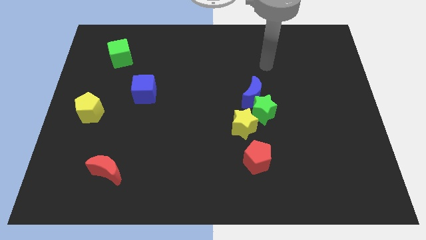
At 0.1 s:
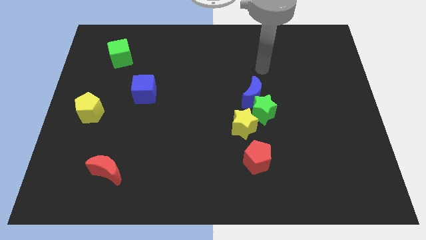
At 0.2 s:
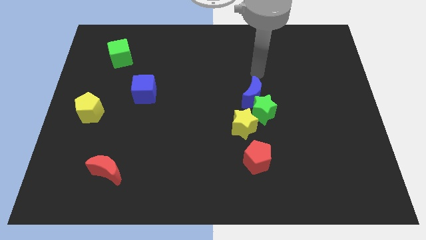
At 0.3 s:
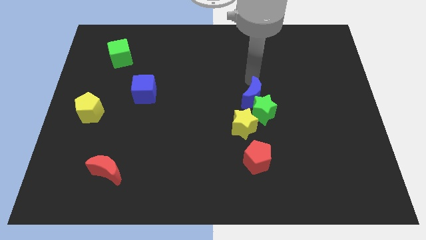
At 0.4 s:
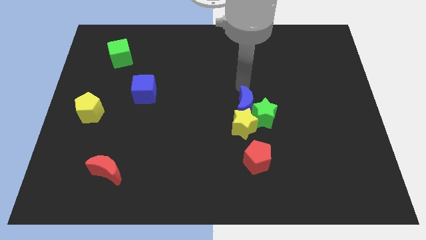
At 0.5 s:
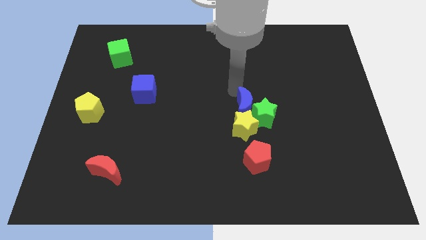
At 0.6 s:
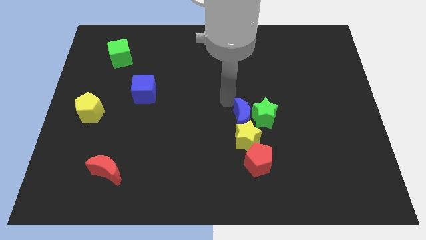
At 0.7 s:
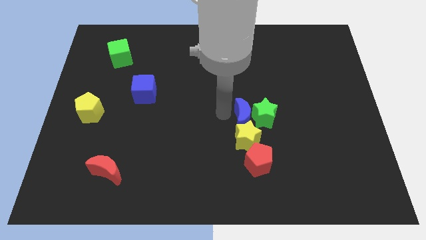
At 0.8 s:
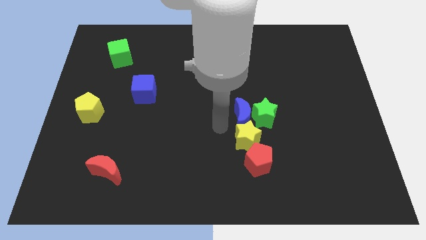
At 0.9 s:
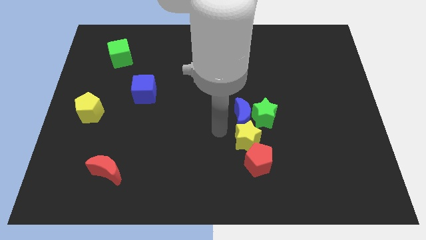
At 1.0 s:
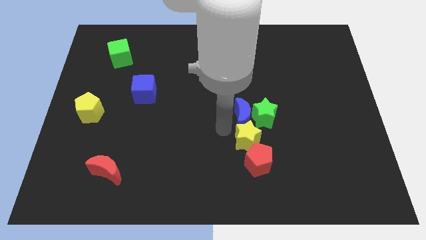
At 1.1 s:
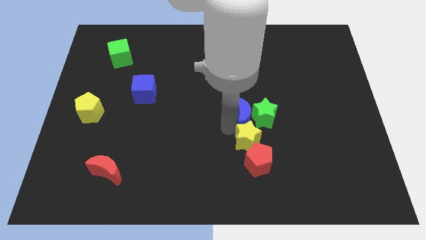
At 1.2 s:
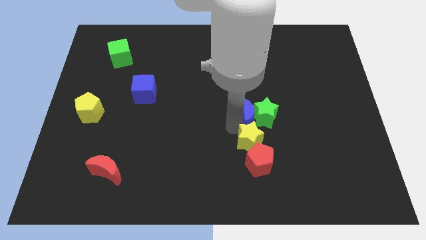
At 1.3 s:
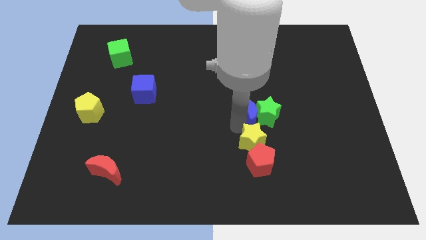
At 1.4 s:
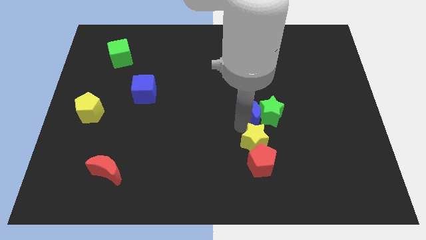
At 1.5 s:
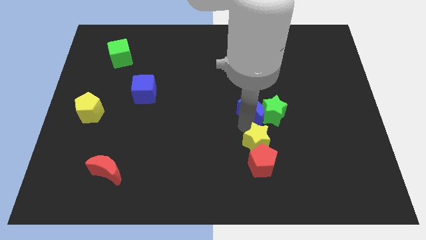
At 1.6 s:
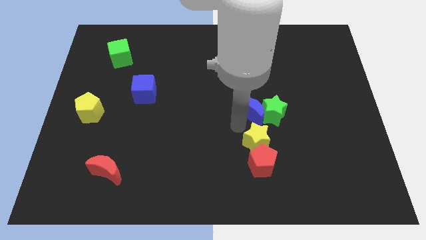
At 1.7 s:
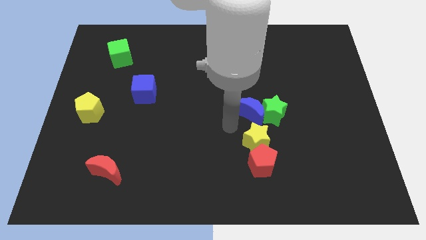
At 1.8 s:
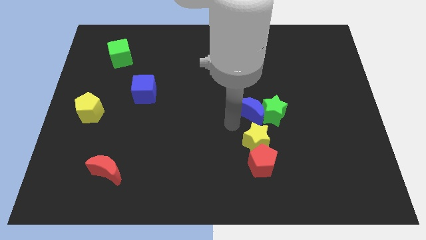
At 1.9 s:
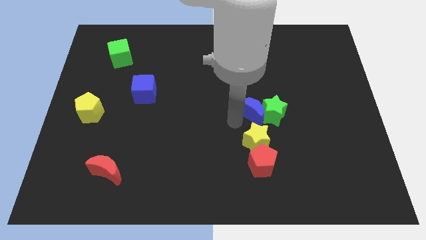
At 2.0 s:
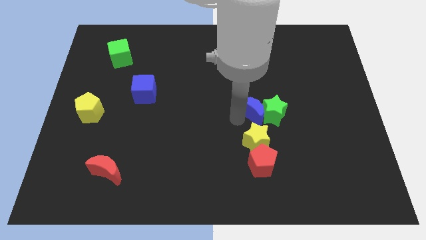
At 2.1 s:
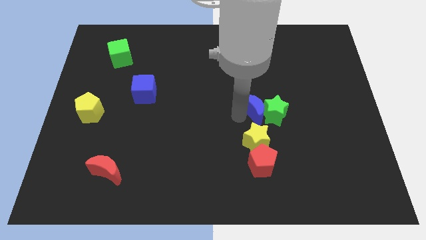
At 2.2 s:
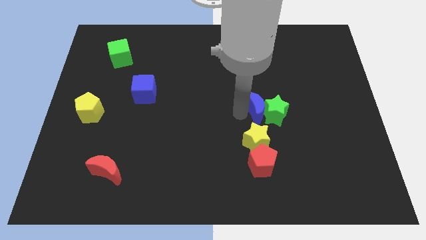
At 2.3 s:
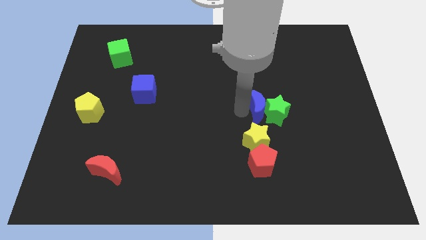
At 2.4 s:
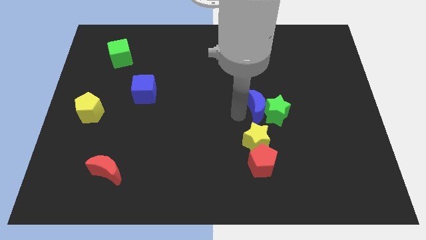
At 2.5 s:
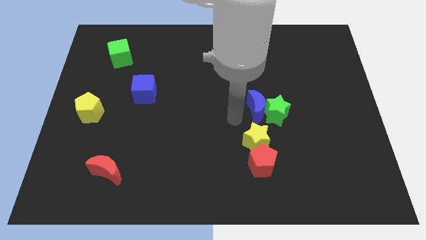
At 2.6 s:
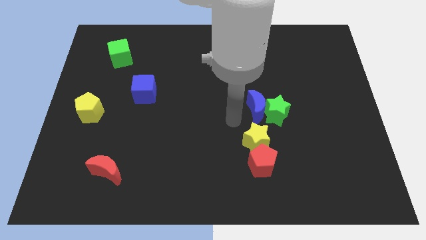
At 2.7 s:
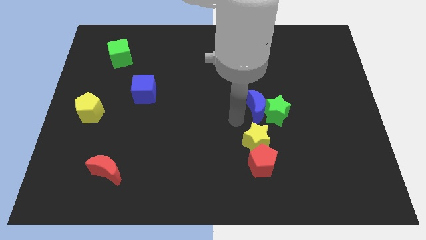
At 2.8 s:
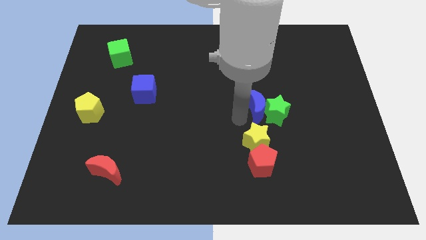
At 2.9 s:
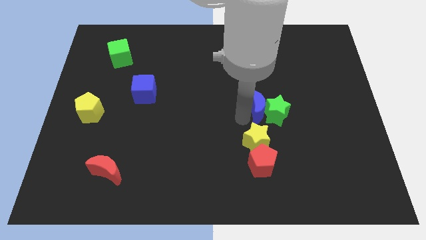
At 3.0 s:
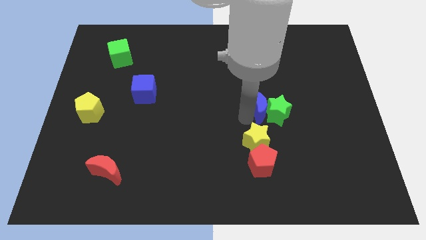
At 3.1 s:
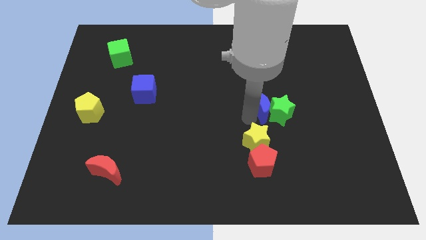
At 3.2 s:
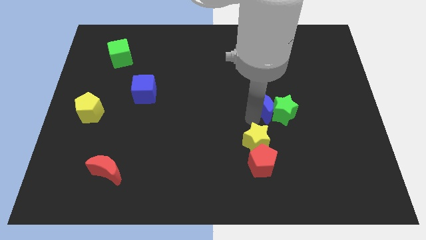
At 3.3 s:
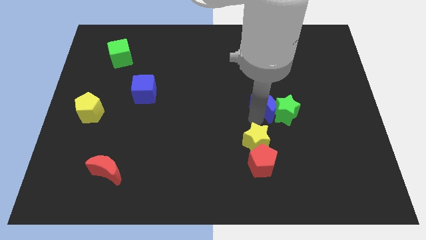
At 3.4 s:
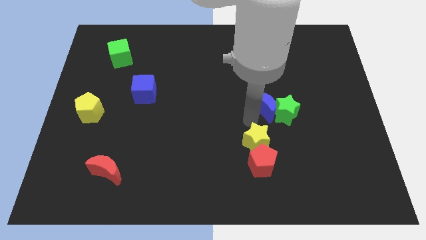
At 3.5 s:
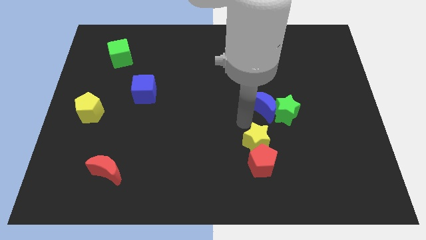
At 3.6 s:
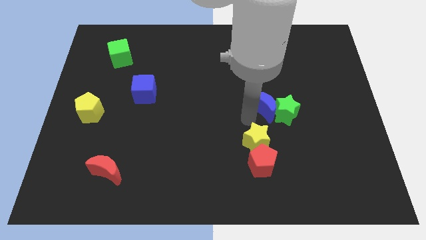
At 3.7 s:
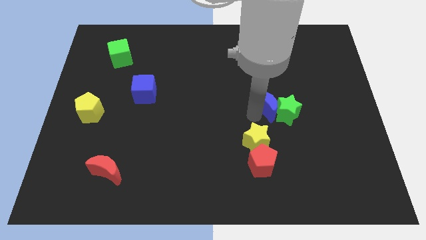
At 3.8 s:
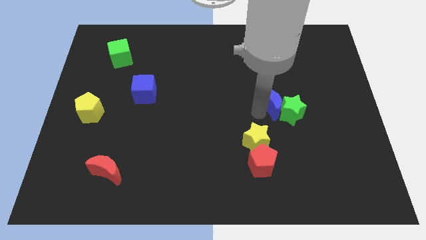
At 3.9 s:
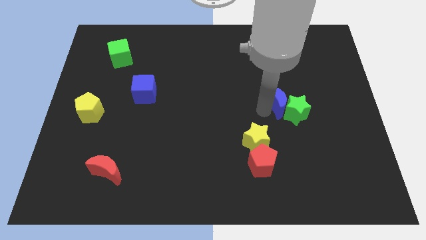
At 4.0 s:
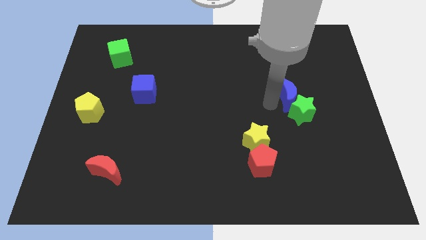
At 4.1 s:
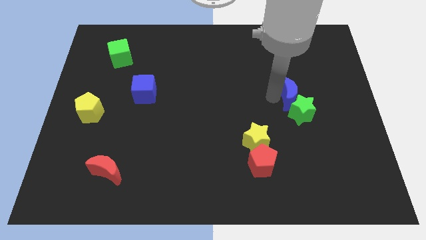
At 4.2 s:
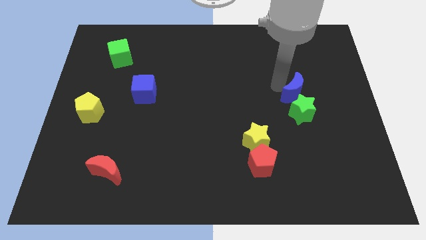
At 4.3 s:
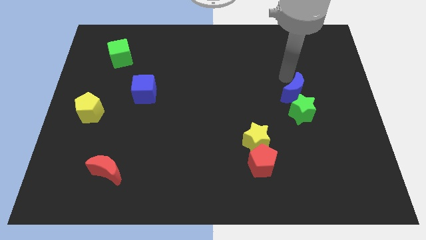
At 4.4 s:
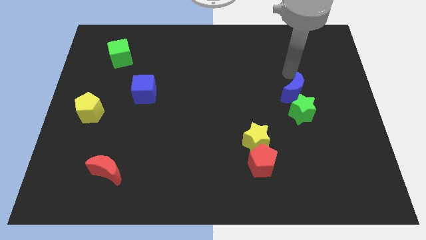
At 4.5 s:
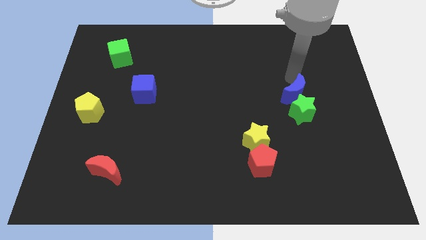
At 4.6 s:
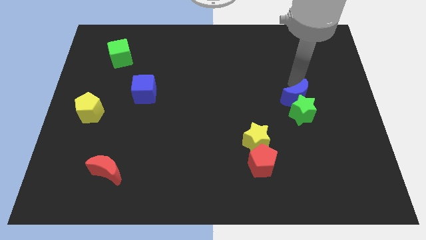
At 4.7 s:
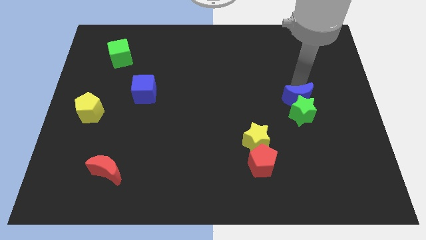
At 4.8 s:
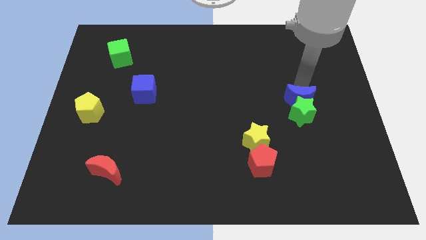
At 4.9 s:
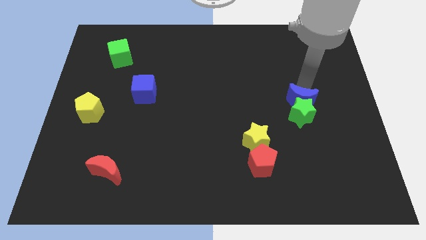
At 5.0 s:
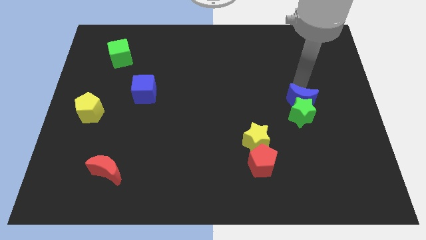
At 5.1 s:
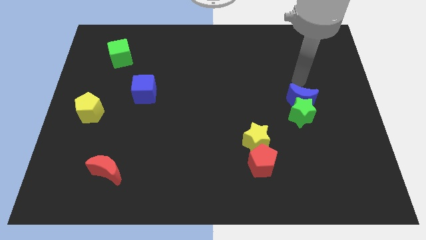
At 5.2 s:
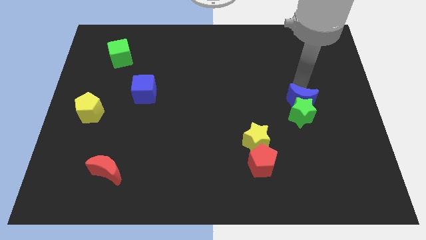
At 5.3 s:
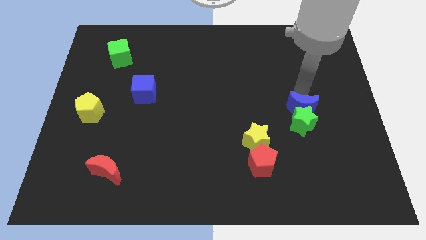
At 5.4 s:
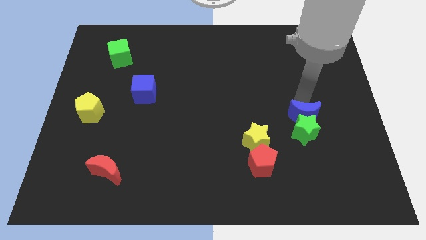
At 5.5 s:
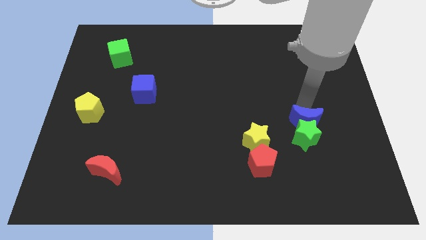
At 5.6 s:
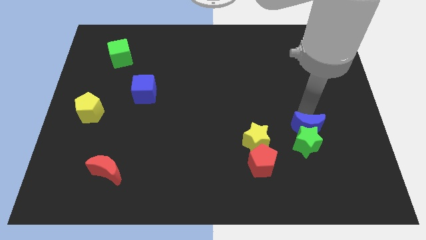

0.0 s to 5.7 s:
push the blue moon right of the yellow star

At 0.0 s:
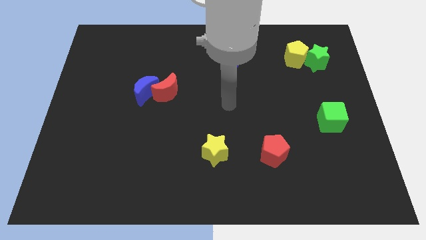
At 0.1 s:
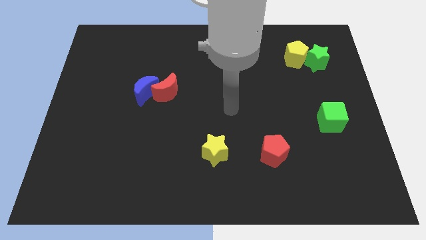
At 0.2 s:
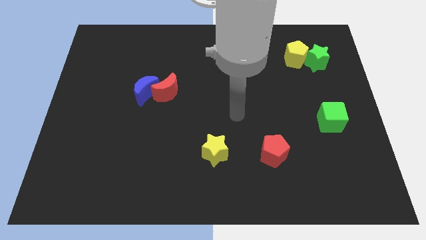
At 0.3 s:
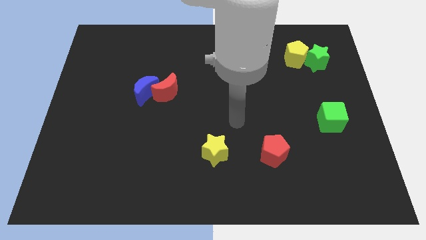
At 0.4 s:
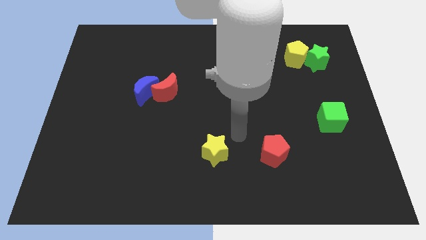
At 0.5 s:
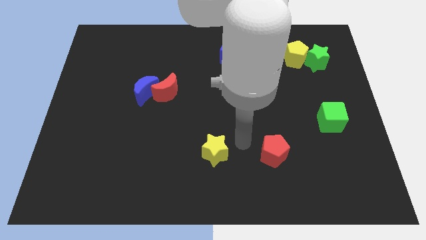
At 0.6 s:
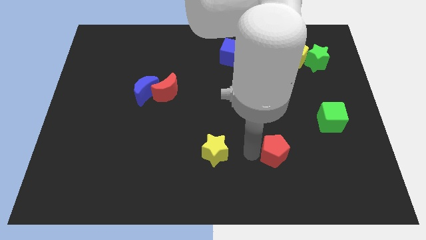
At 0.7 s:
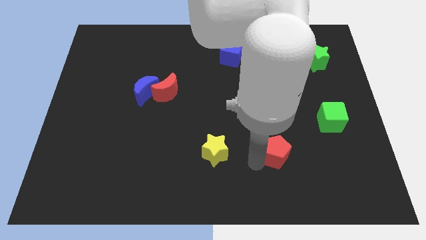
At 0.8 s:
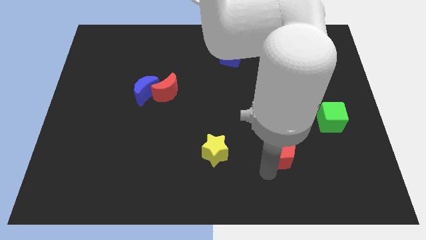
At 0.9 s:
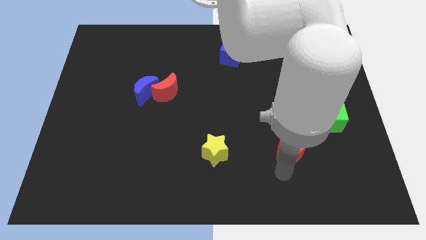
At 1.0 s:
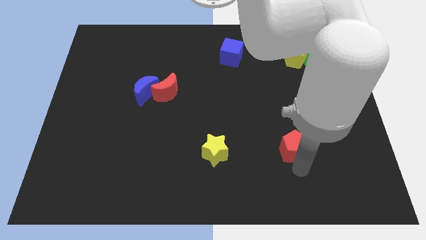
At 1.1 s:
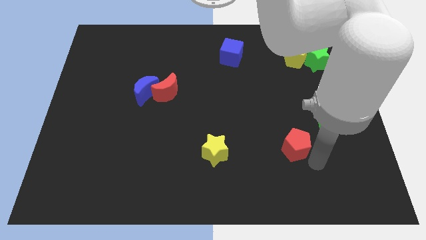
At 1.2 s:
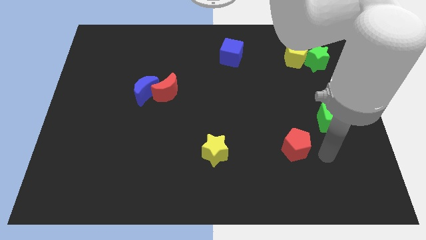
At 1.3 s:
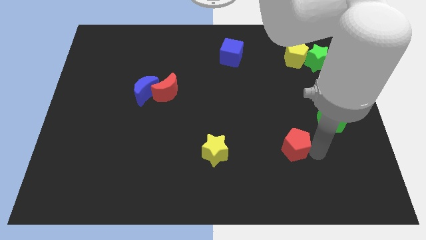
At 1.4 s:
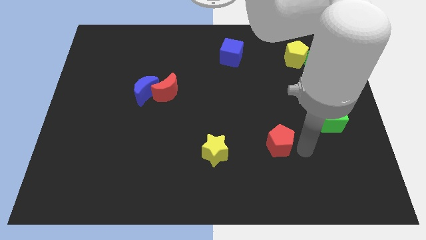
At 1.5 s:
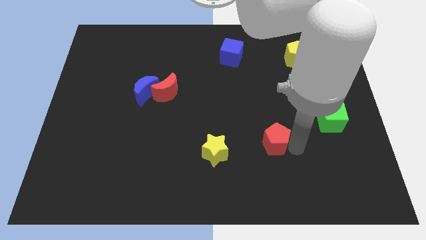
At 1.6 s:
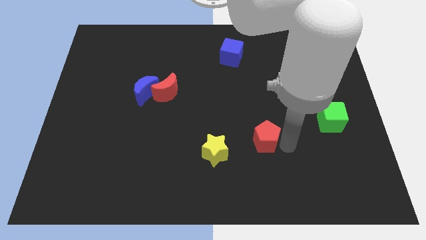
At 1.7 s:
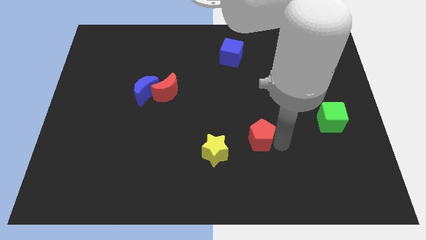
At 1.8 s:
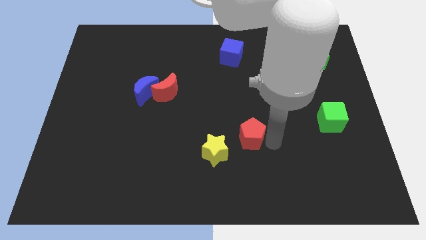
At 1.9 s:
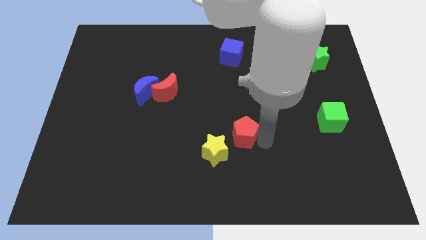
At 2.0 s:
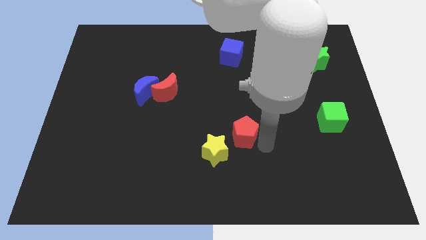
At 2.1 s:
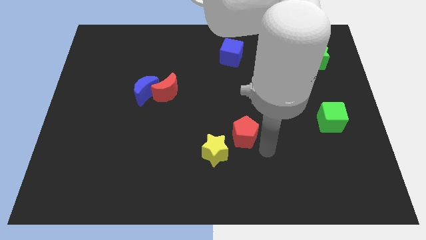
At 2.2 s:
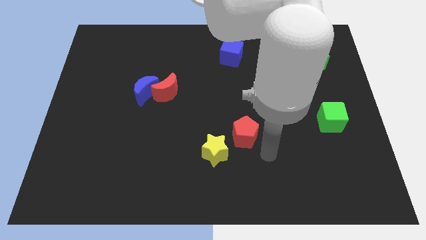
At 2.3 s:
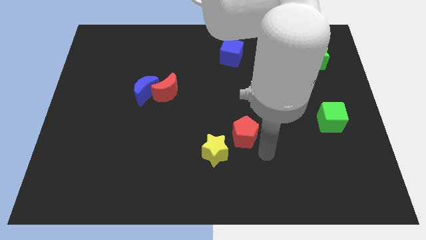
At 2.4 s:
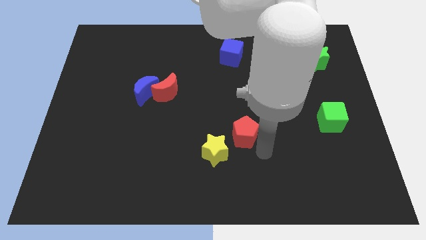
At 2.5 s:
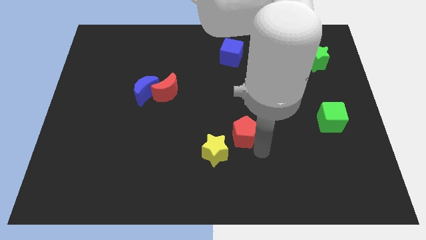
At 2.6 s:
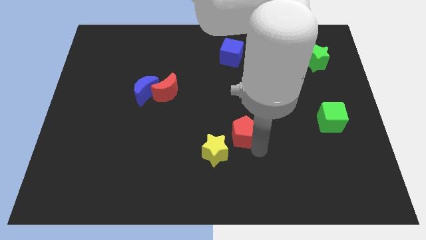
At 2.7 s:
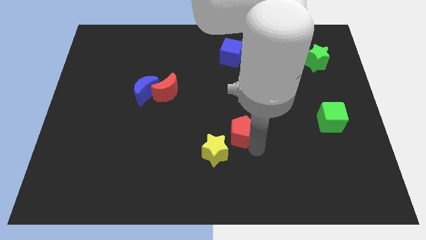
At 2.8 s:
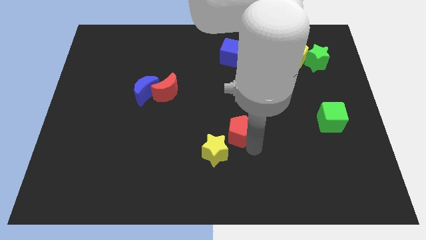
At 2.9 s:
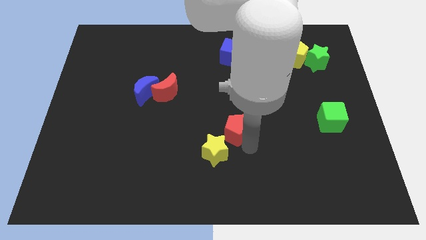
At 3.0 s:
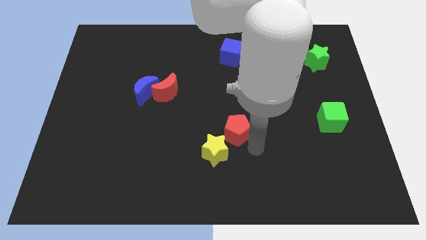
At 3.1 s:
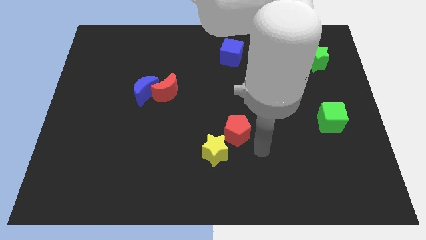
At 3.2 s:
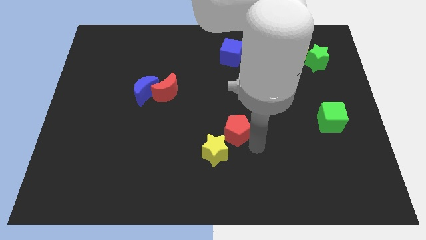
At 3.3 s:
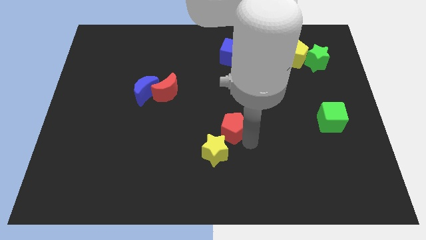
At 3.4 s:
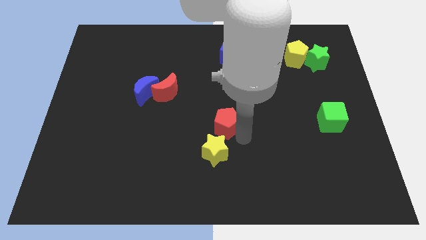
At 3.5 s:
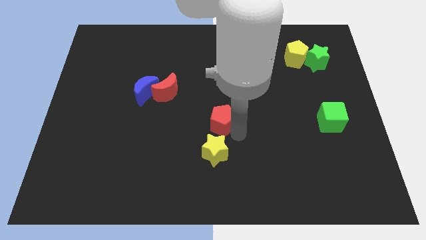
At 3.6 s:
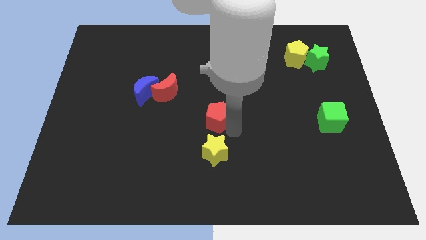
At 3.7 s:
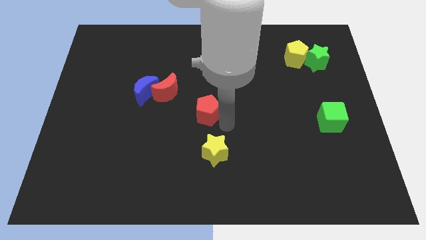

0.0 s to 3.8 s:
put the red pentagon diagonally down and to the right of the red moon
